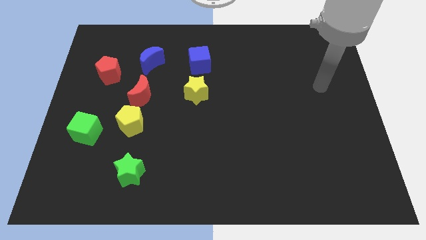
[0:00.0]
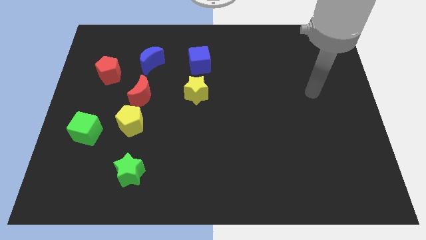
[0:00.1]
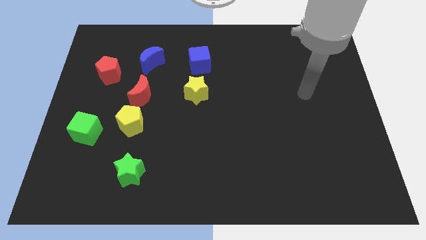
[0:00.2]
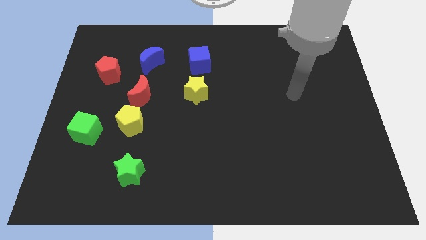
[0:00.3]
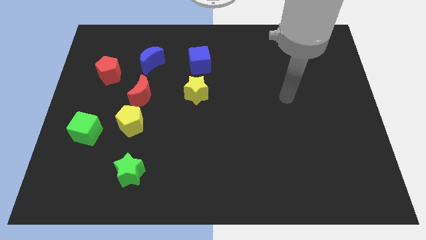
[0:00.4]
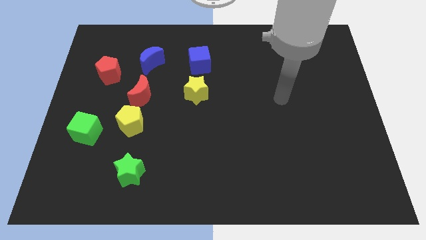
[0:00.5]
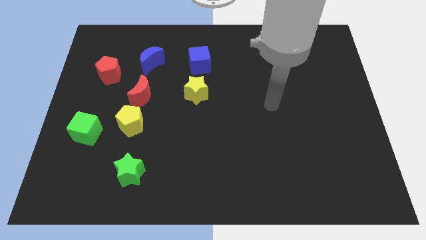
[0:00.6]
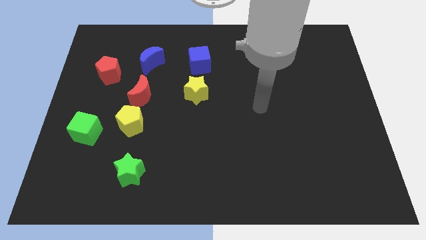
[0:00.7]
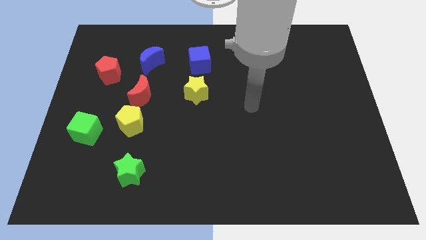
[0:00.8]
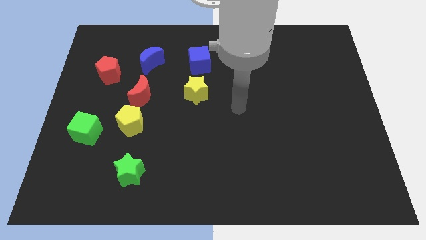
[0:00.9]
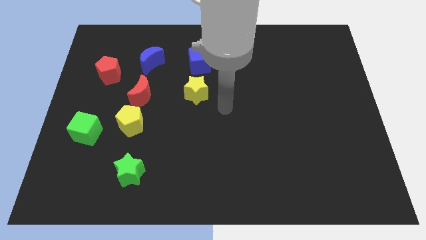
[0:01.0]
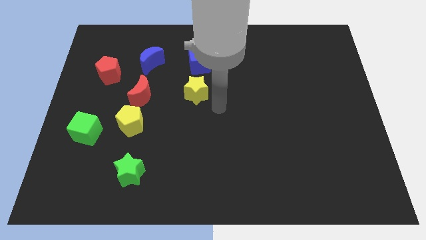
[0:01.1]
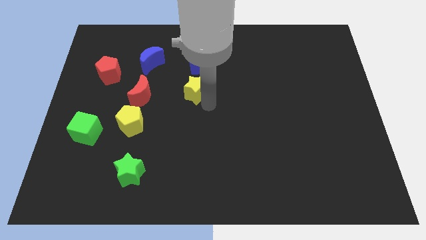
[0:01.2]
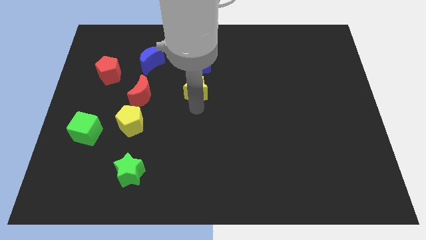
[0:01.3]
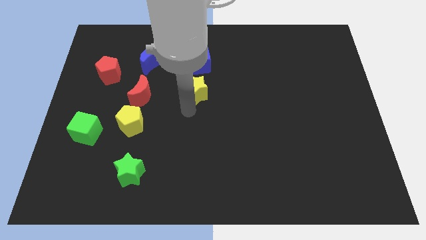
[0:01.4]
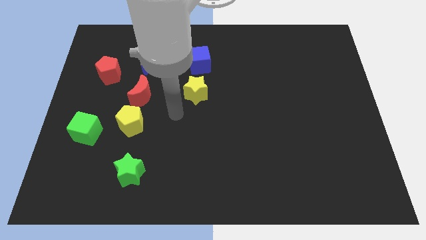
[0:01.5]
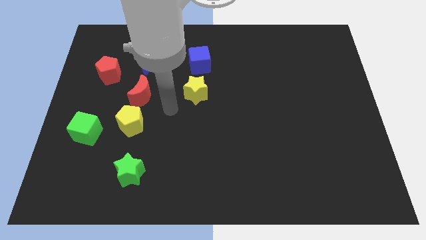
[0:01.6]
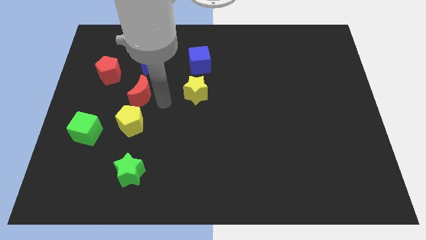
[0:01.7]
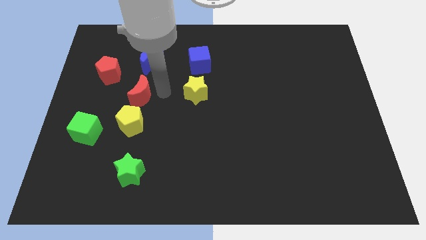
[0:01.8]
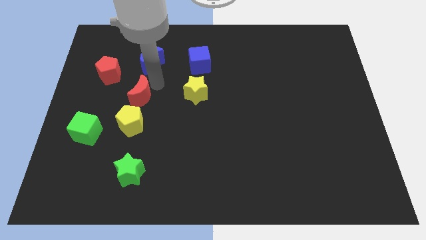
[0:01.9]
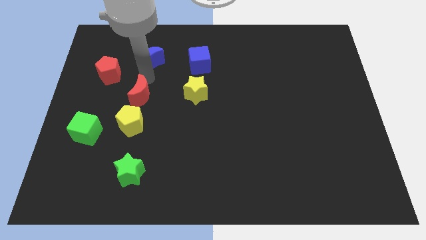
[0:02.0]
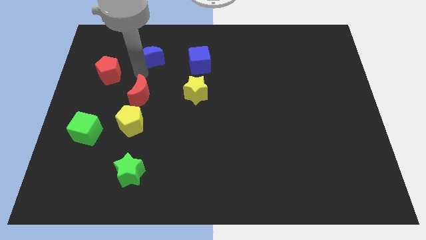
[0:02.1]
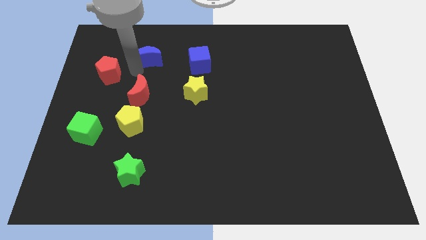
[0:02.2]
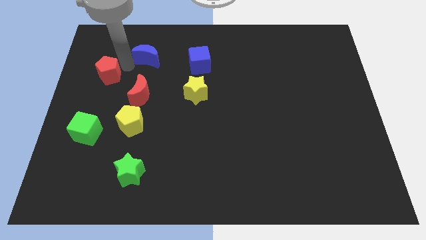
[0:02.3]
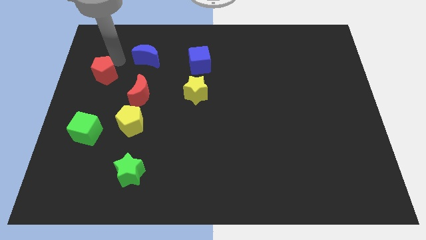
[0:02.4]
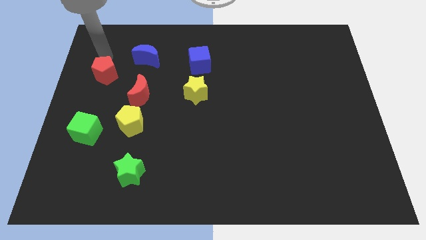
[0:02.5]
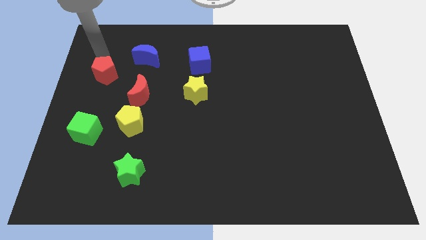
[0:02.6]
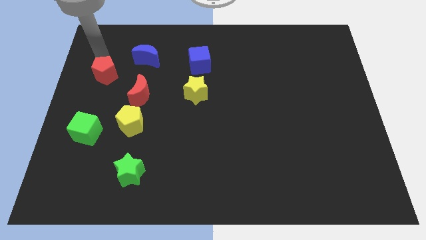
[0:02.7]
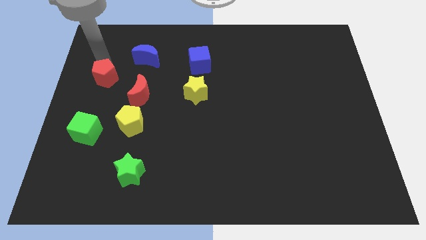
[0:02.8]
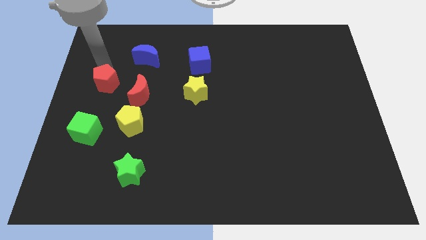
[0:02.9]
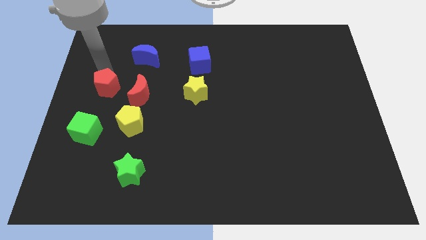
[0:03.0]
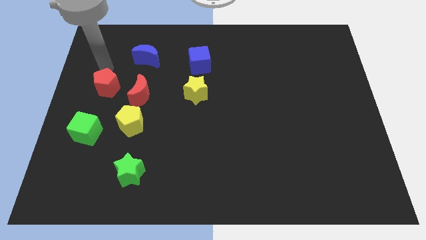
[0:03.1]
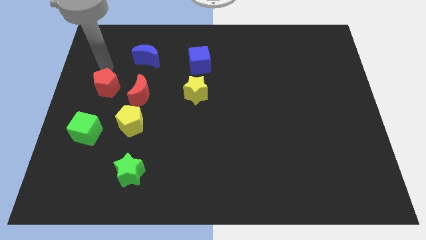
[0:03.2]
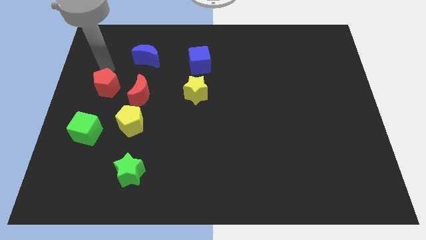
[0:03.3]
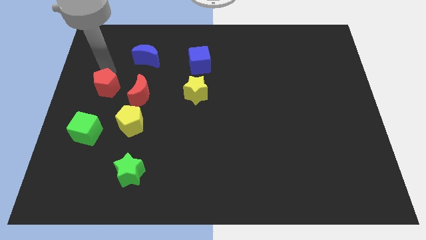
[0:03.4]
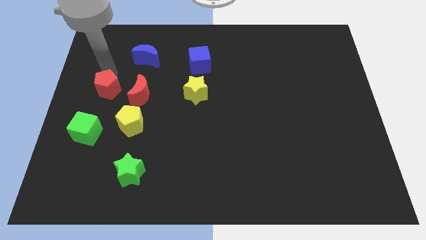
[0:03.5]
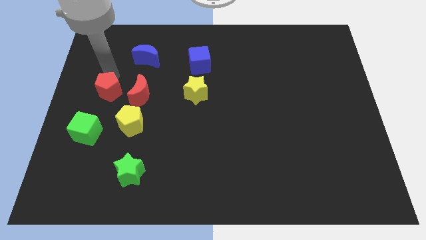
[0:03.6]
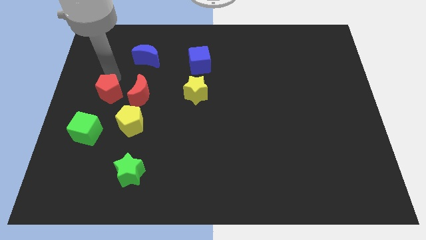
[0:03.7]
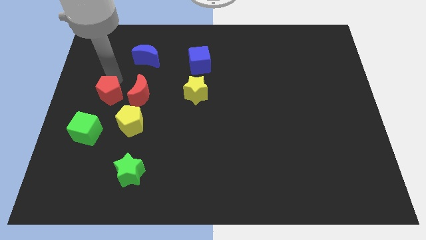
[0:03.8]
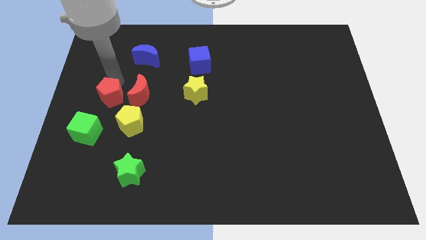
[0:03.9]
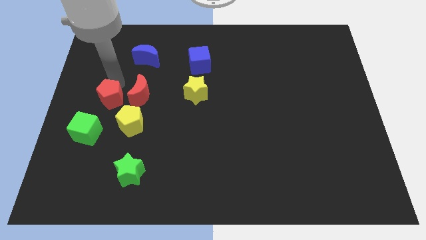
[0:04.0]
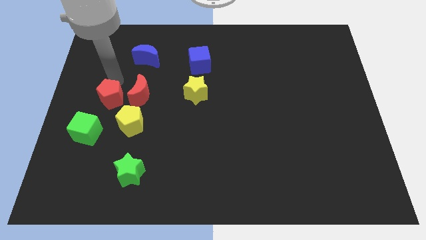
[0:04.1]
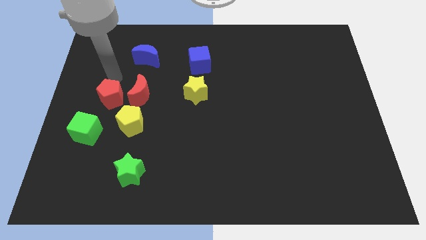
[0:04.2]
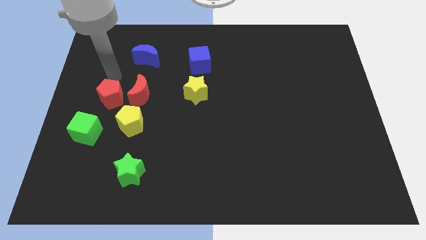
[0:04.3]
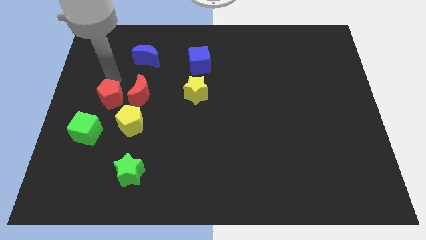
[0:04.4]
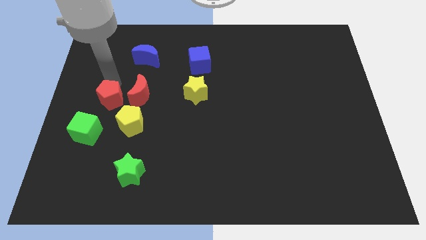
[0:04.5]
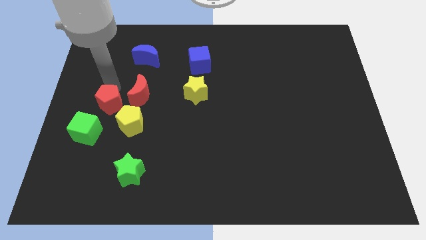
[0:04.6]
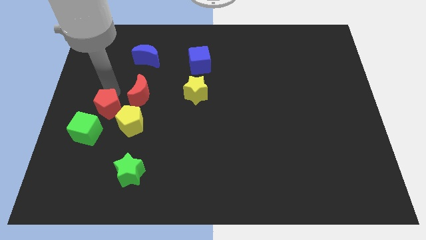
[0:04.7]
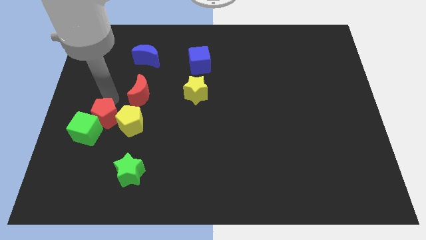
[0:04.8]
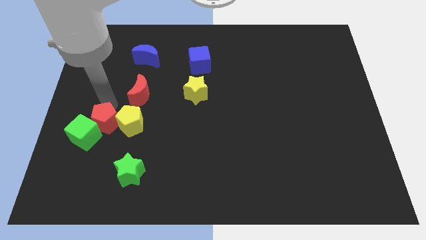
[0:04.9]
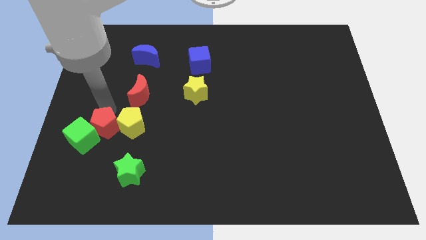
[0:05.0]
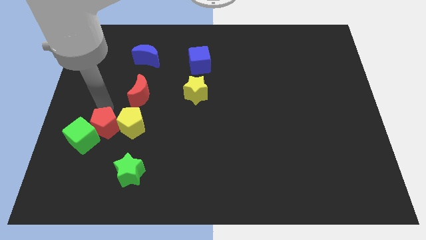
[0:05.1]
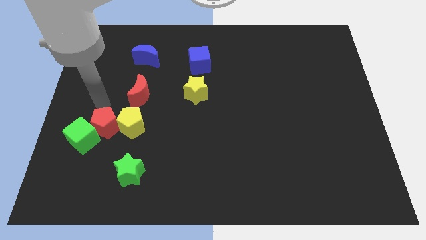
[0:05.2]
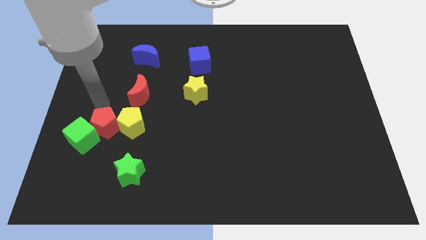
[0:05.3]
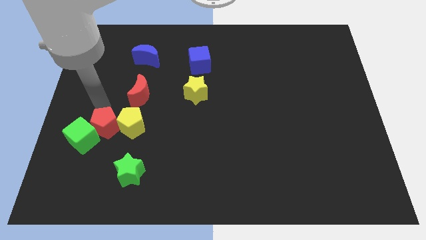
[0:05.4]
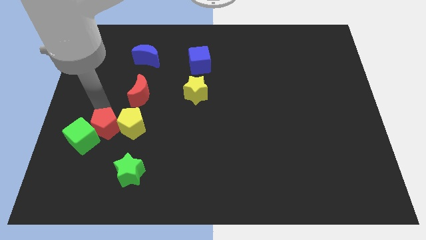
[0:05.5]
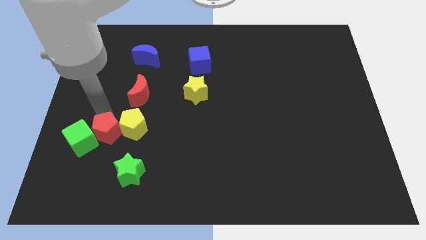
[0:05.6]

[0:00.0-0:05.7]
slide the red pentagon to the top left side of the green star

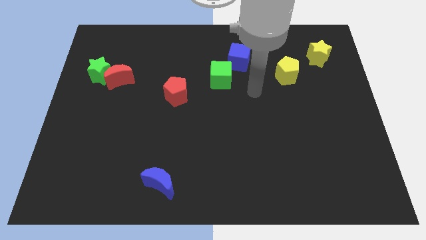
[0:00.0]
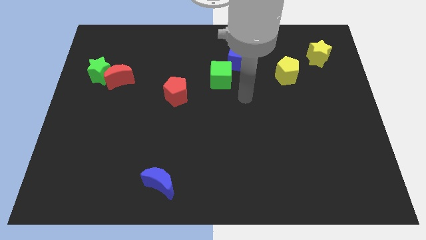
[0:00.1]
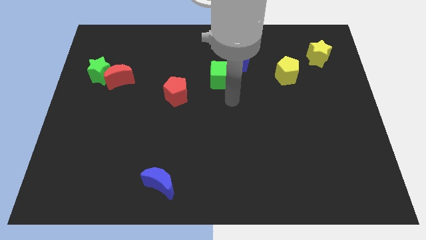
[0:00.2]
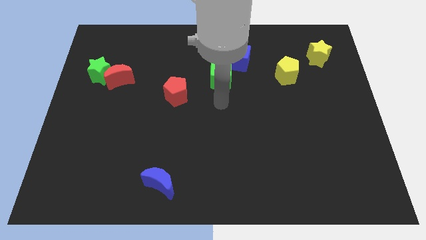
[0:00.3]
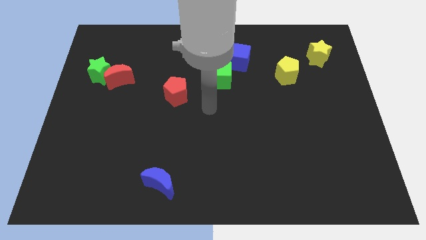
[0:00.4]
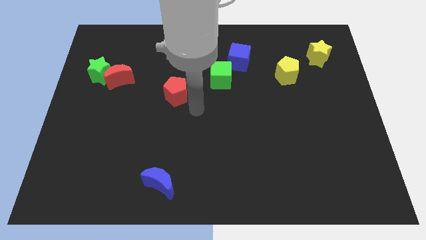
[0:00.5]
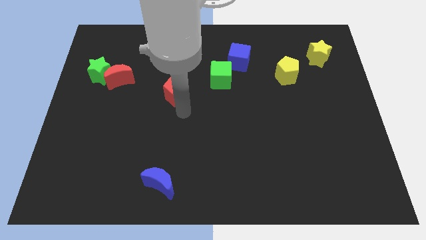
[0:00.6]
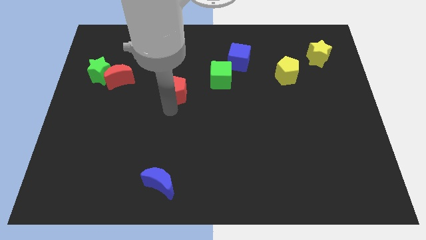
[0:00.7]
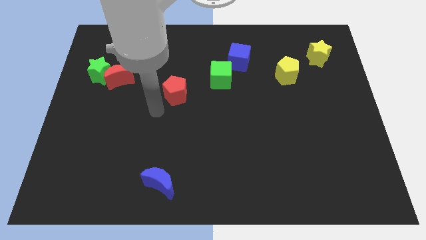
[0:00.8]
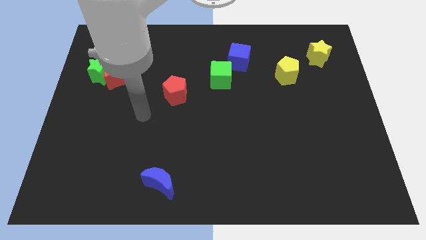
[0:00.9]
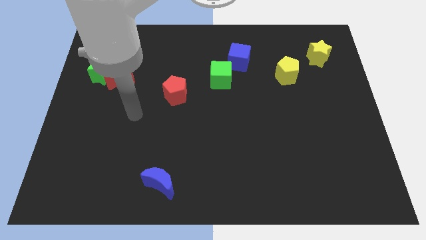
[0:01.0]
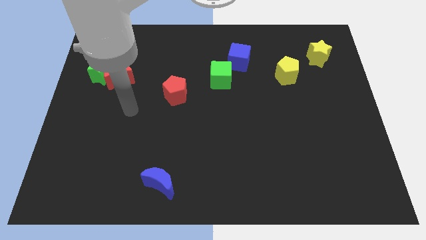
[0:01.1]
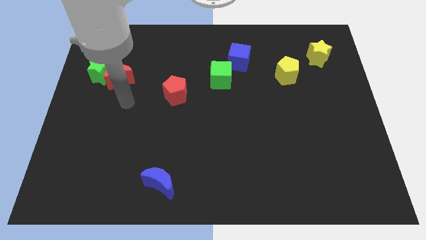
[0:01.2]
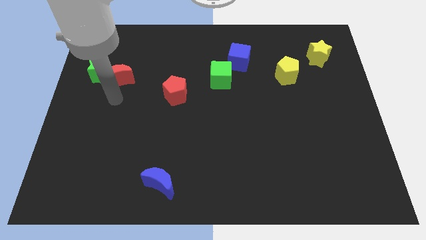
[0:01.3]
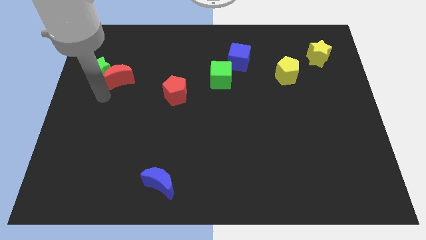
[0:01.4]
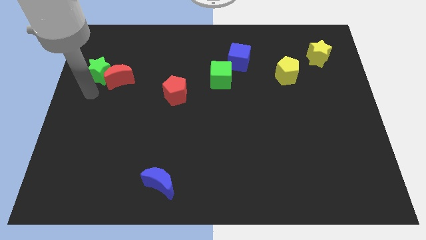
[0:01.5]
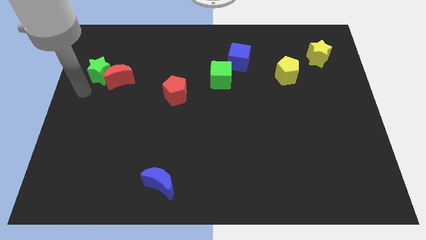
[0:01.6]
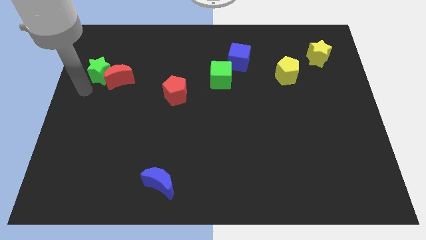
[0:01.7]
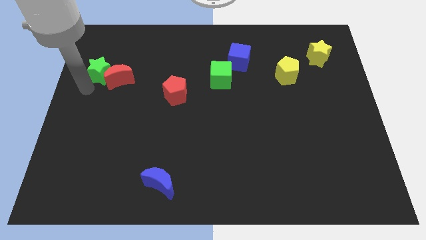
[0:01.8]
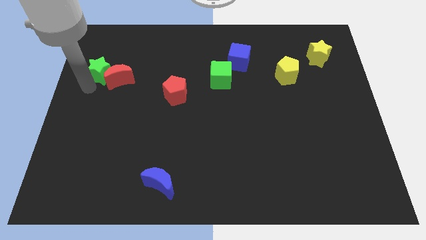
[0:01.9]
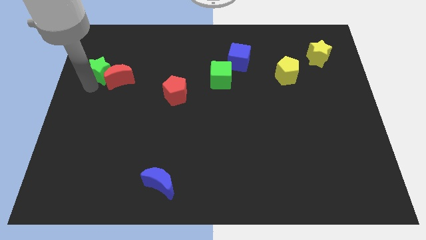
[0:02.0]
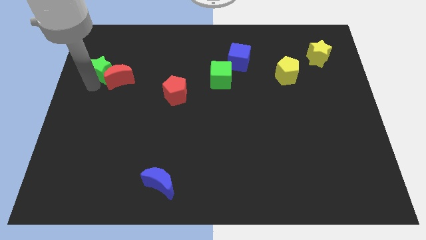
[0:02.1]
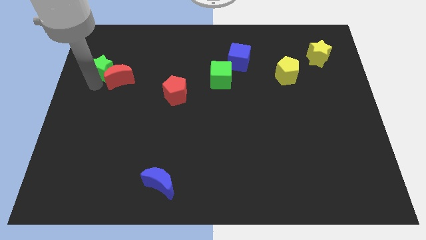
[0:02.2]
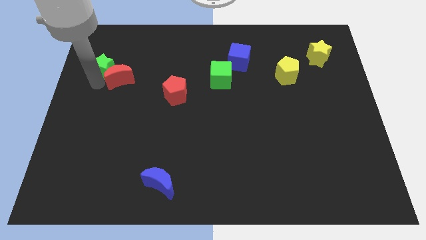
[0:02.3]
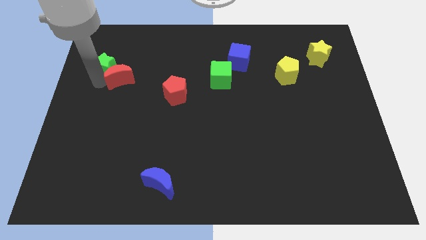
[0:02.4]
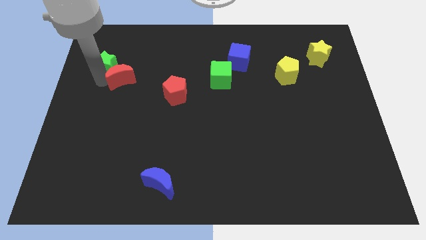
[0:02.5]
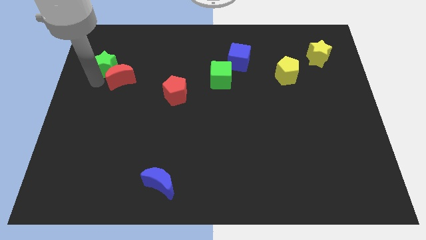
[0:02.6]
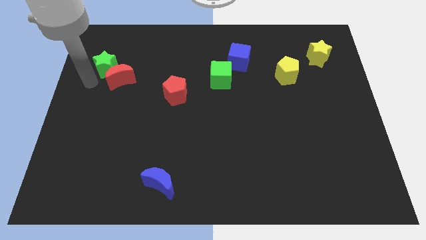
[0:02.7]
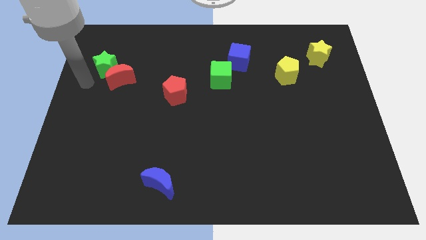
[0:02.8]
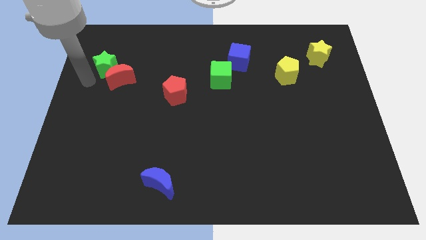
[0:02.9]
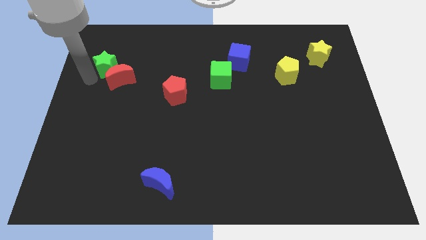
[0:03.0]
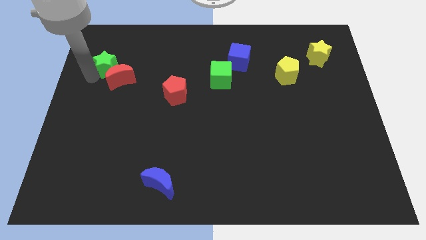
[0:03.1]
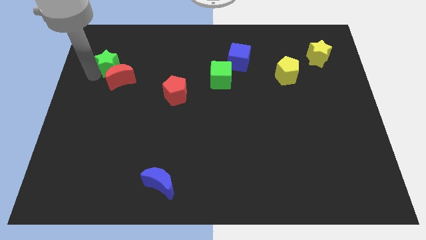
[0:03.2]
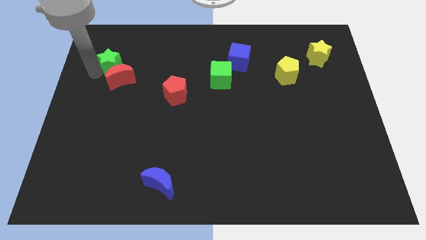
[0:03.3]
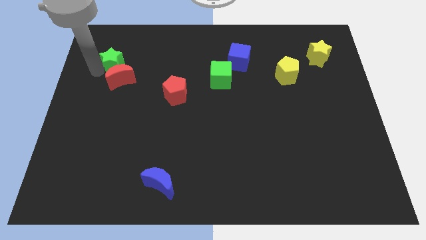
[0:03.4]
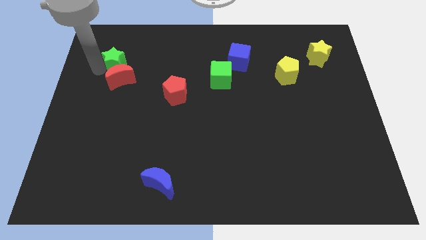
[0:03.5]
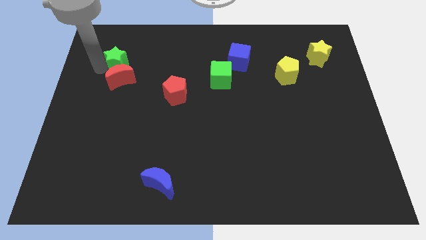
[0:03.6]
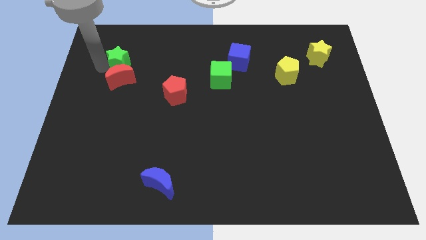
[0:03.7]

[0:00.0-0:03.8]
put the green star diagonally up and to the right of the red moon
